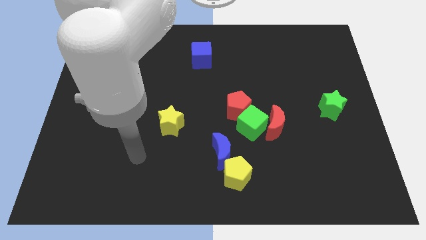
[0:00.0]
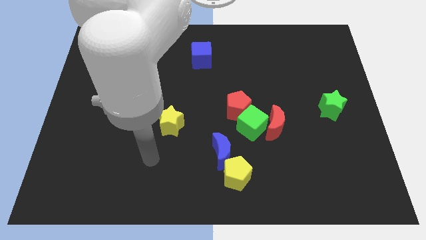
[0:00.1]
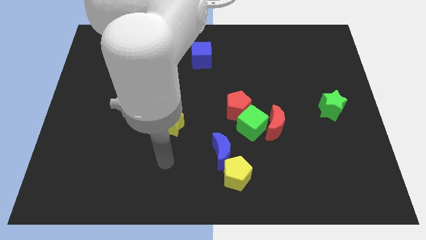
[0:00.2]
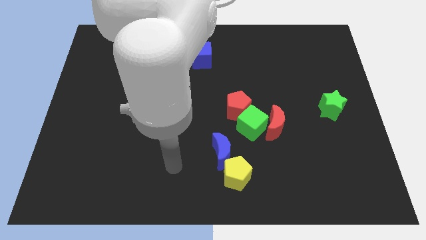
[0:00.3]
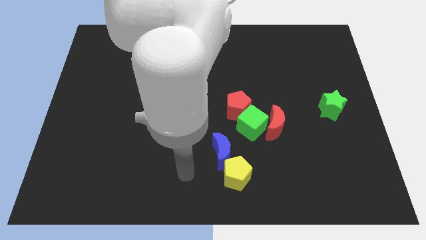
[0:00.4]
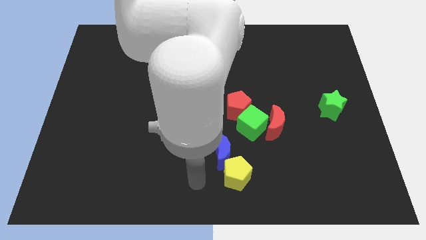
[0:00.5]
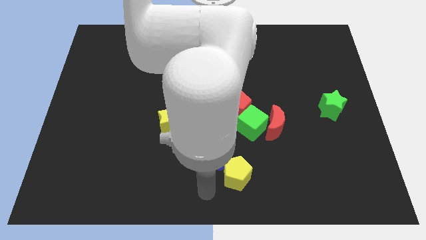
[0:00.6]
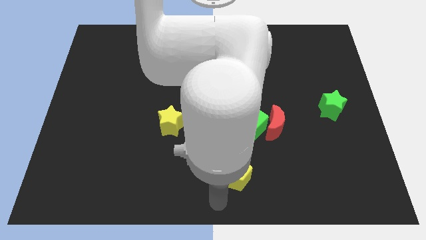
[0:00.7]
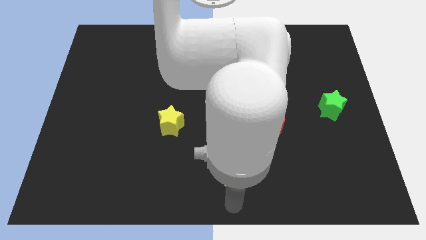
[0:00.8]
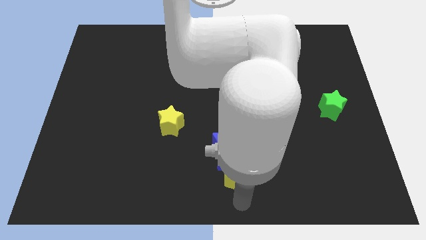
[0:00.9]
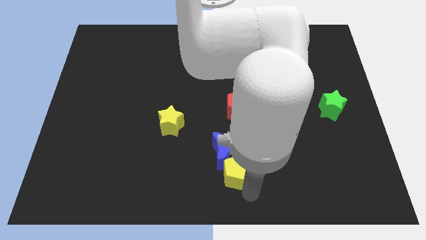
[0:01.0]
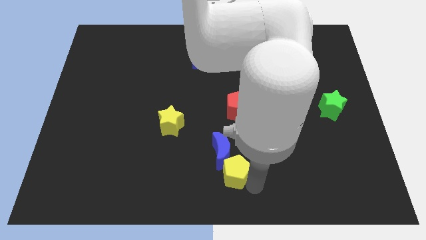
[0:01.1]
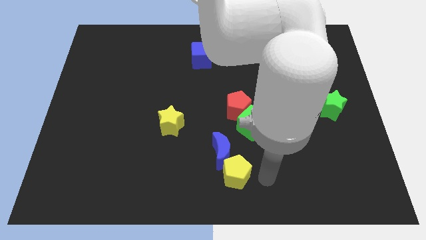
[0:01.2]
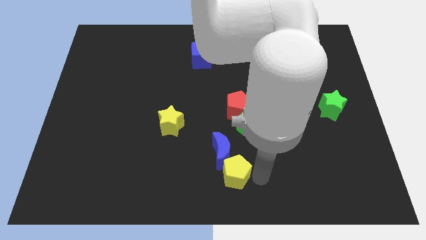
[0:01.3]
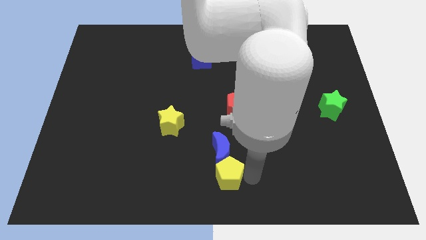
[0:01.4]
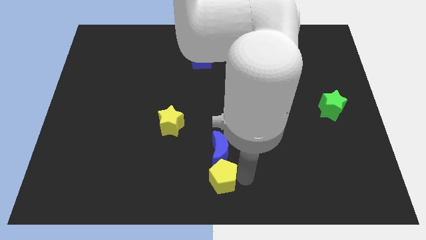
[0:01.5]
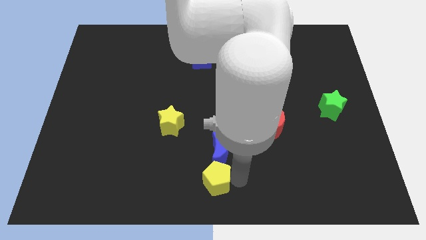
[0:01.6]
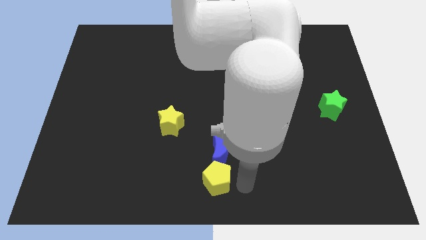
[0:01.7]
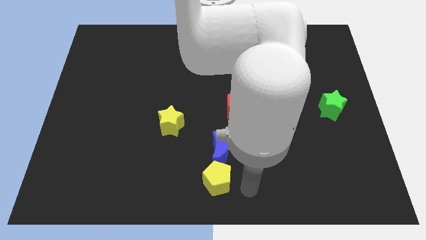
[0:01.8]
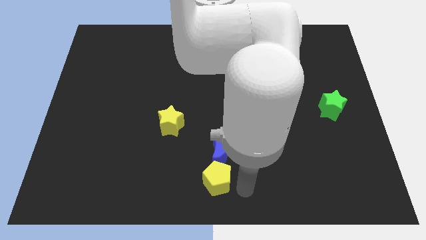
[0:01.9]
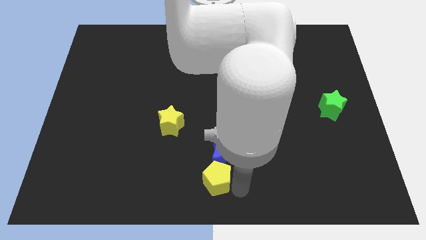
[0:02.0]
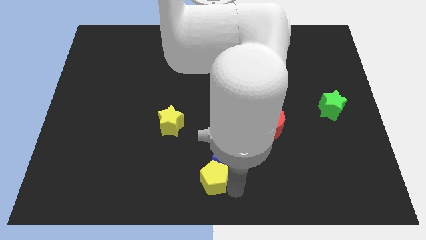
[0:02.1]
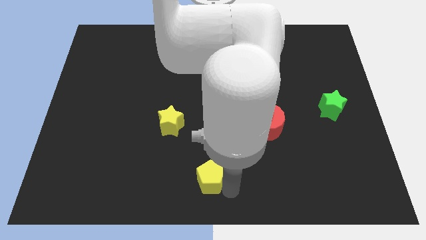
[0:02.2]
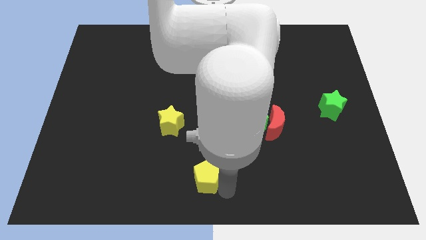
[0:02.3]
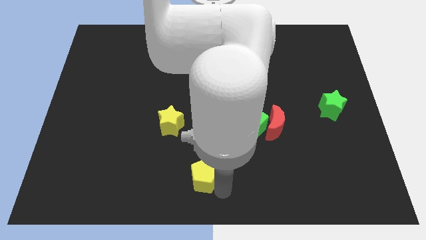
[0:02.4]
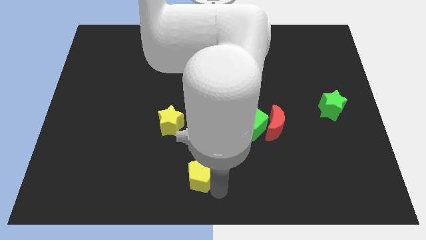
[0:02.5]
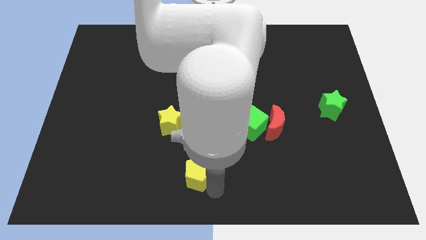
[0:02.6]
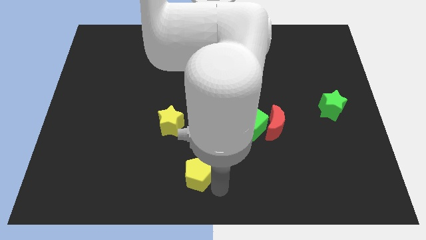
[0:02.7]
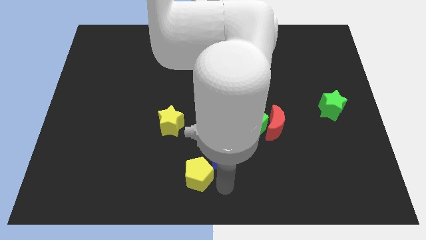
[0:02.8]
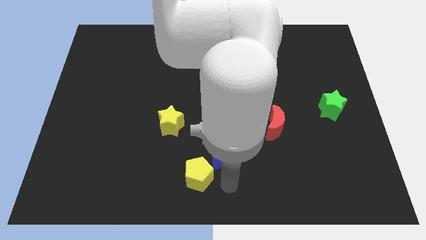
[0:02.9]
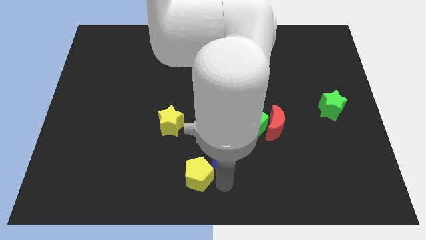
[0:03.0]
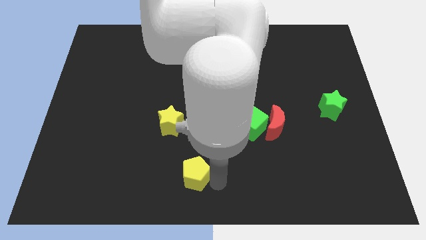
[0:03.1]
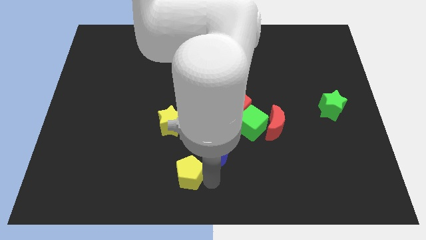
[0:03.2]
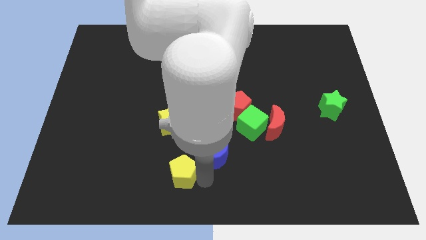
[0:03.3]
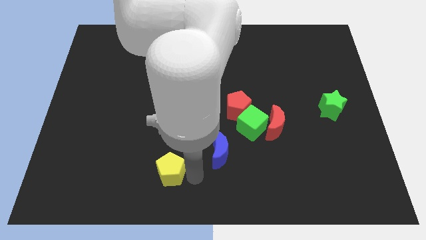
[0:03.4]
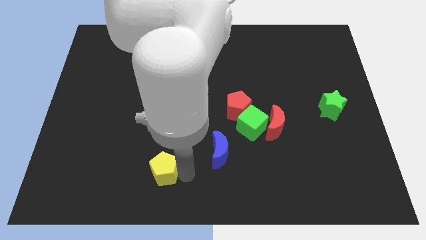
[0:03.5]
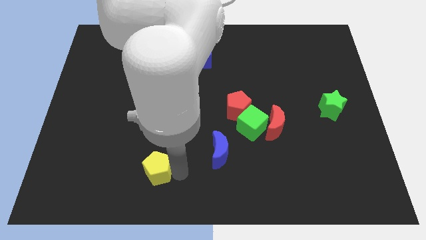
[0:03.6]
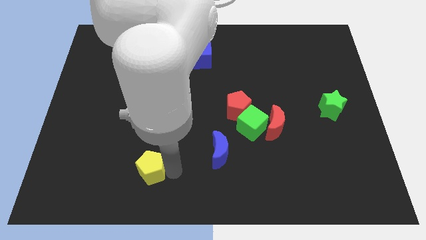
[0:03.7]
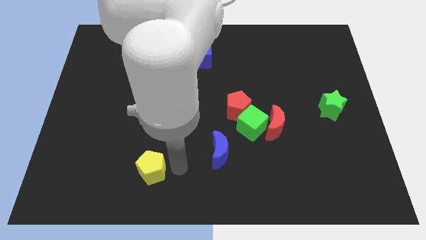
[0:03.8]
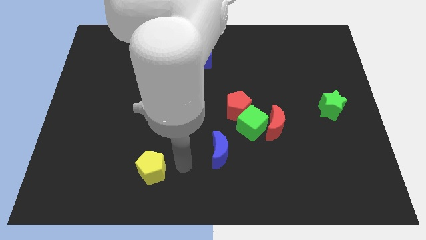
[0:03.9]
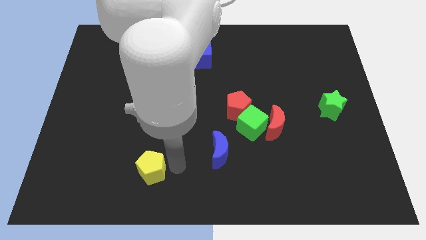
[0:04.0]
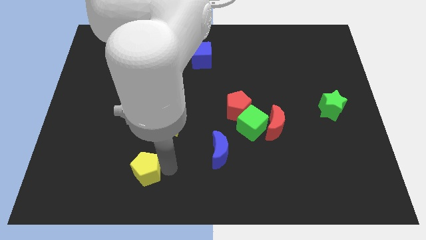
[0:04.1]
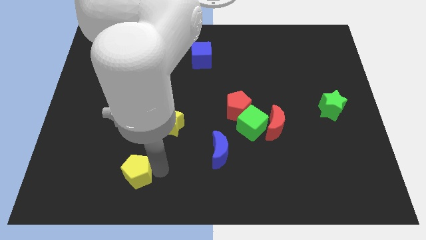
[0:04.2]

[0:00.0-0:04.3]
push the yellow pentagon to the left

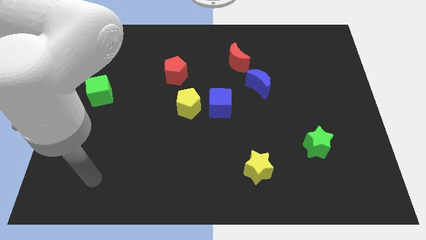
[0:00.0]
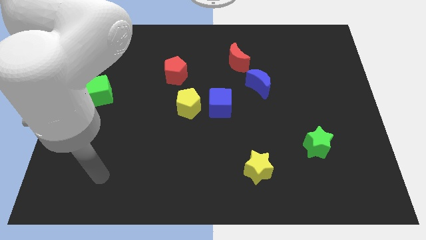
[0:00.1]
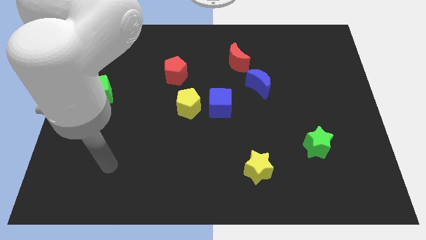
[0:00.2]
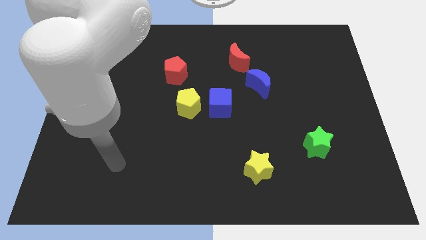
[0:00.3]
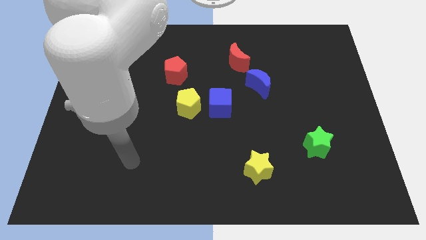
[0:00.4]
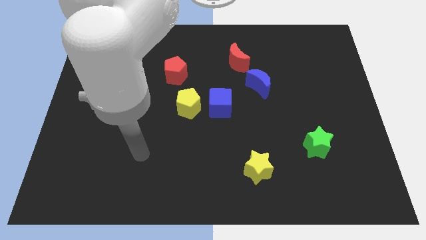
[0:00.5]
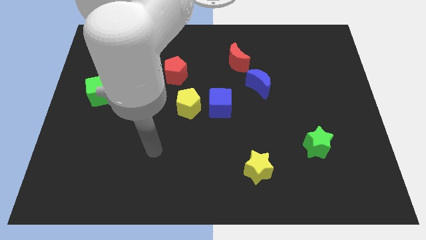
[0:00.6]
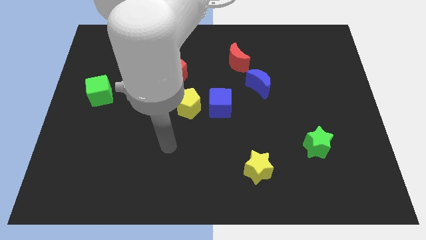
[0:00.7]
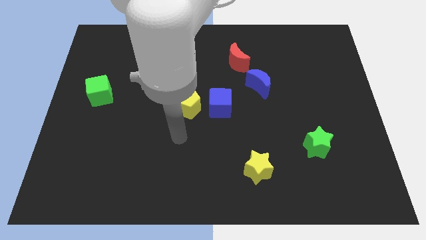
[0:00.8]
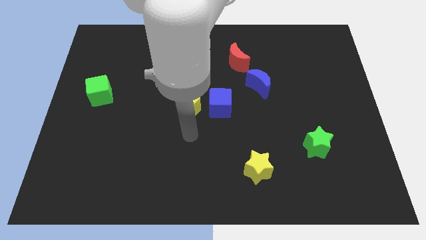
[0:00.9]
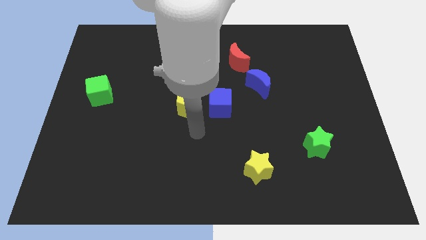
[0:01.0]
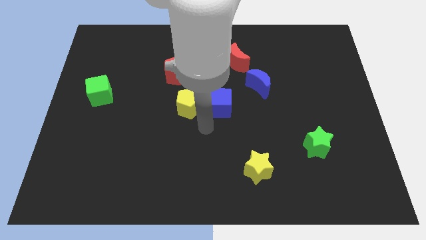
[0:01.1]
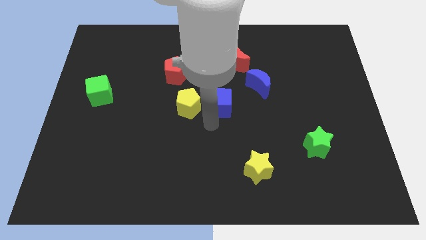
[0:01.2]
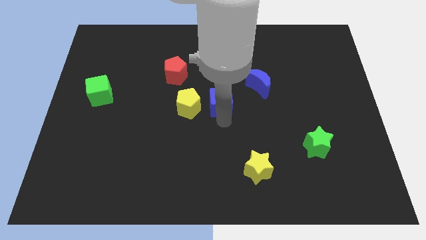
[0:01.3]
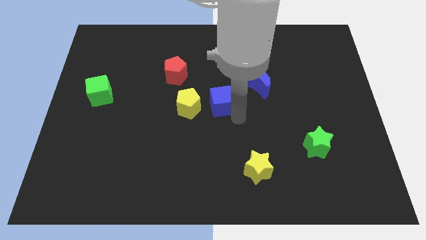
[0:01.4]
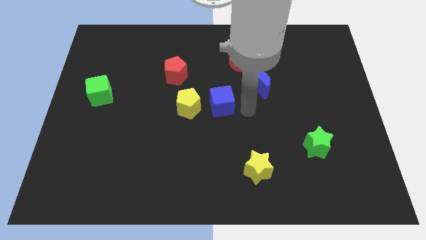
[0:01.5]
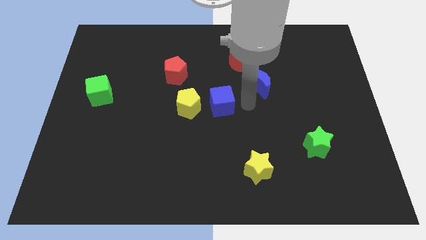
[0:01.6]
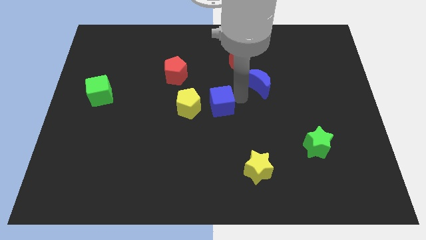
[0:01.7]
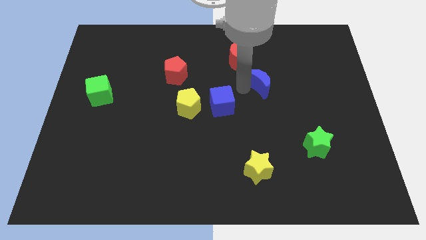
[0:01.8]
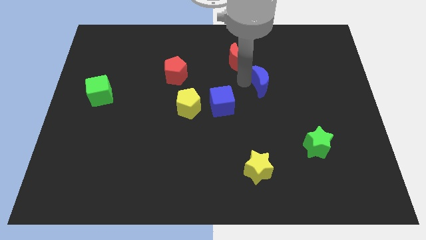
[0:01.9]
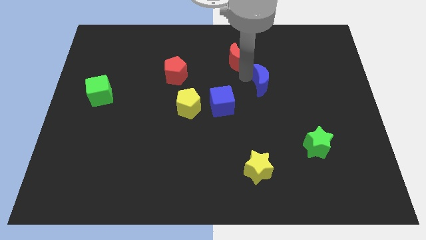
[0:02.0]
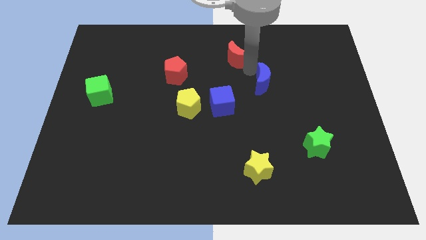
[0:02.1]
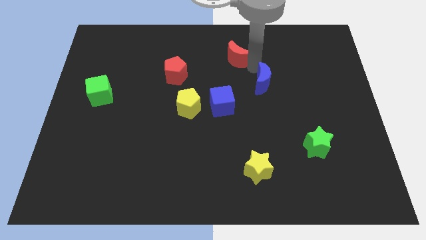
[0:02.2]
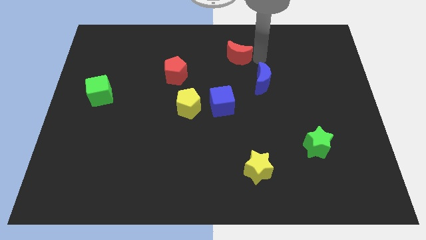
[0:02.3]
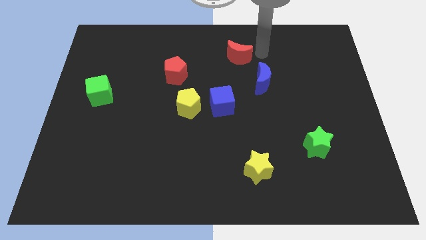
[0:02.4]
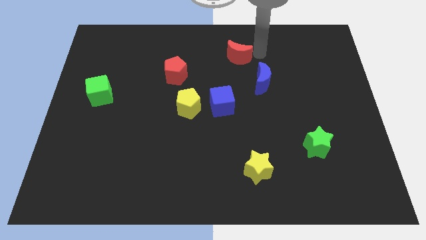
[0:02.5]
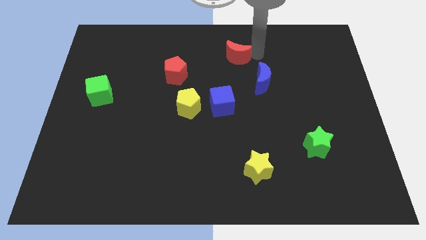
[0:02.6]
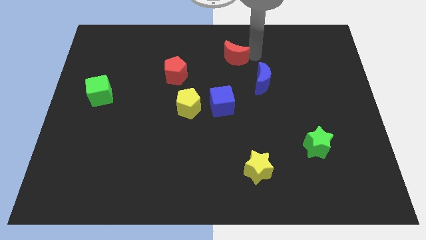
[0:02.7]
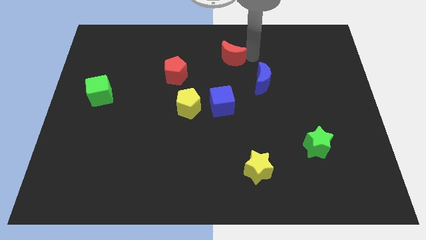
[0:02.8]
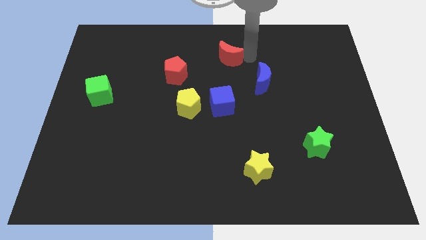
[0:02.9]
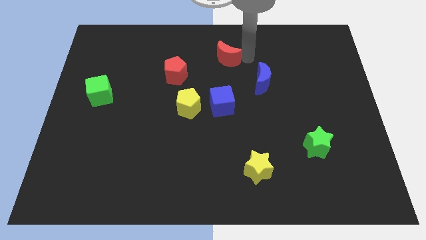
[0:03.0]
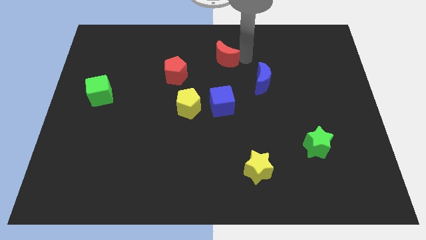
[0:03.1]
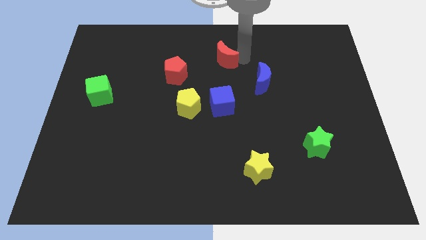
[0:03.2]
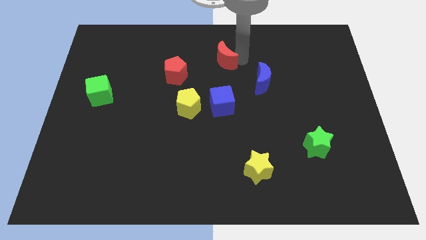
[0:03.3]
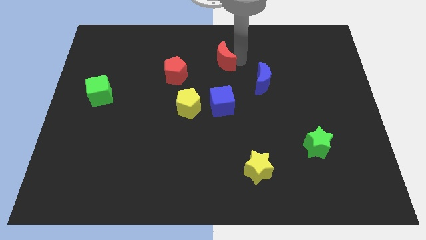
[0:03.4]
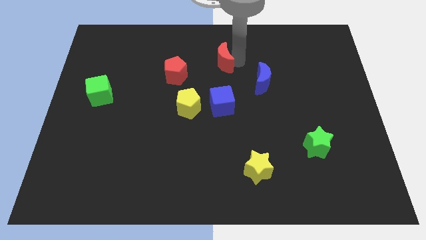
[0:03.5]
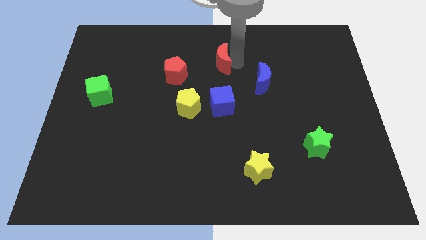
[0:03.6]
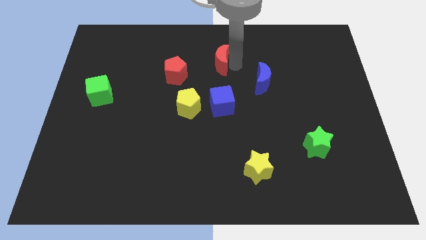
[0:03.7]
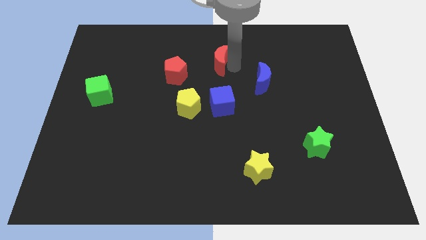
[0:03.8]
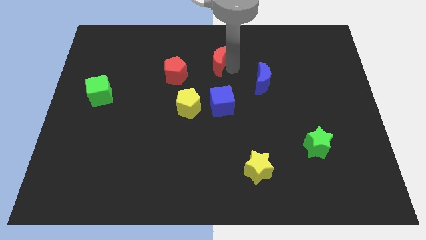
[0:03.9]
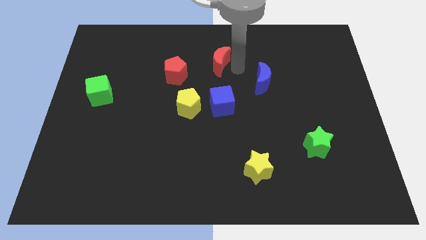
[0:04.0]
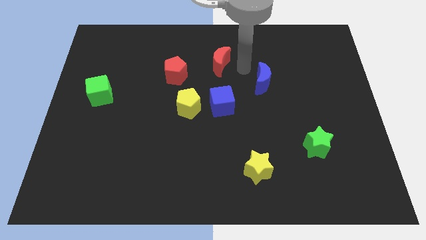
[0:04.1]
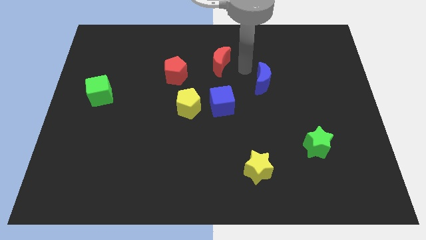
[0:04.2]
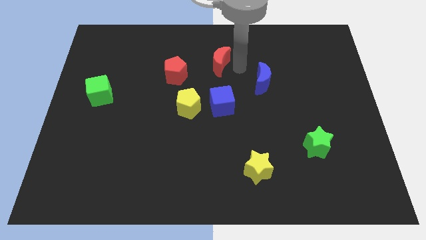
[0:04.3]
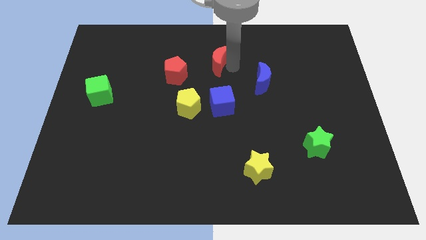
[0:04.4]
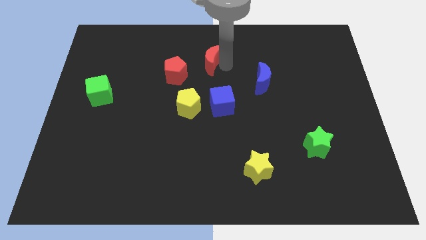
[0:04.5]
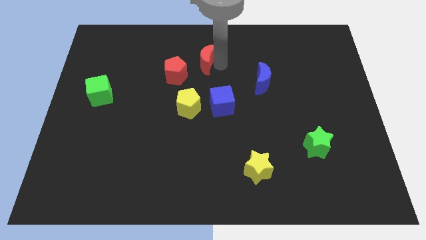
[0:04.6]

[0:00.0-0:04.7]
push the red moon slightly to the left
